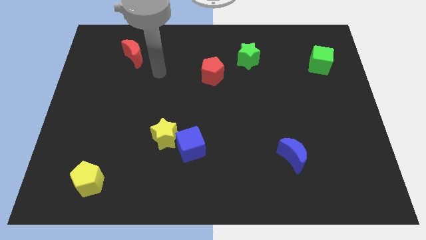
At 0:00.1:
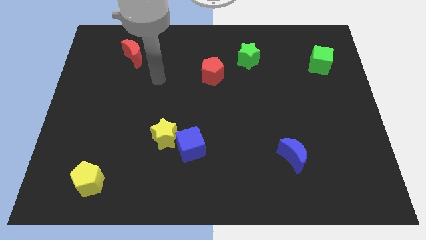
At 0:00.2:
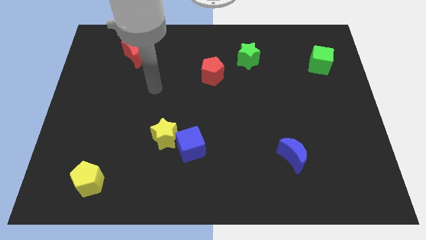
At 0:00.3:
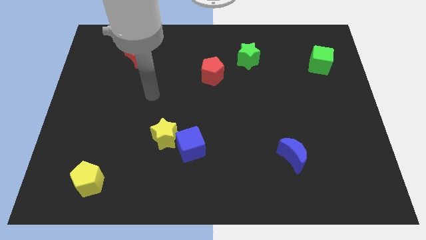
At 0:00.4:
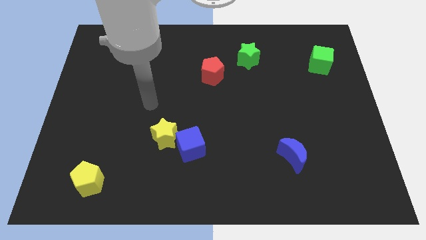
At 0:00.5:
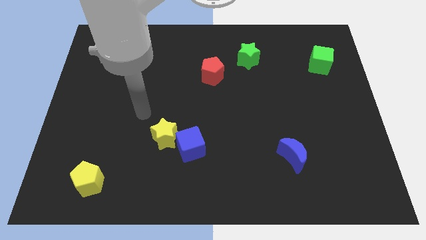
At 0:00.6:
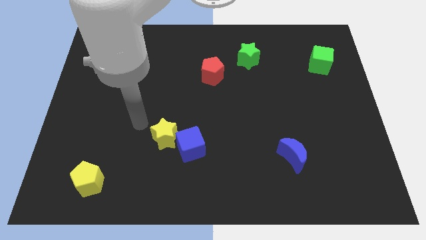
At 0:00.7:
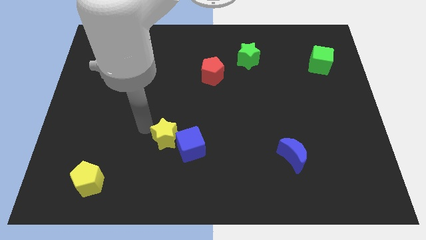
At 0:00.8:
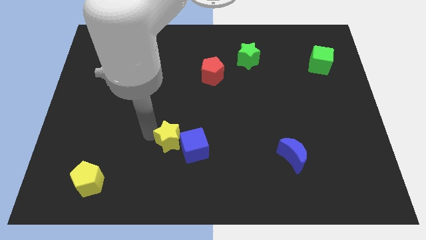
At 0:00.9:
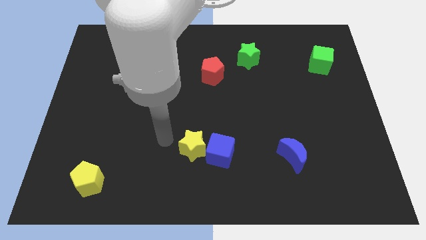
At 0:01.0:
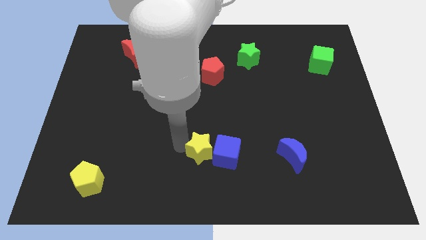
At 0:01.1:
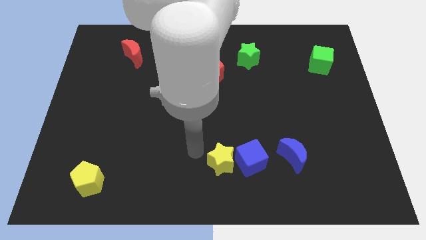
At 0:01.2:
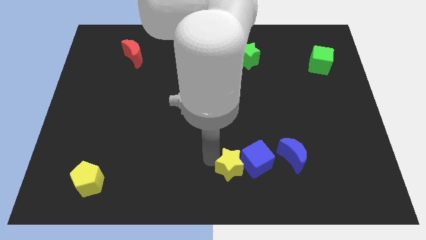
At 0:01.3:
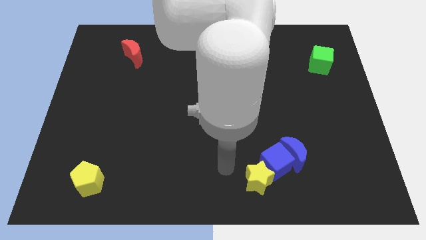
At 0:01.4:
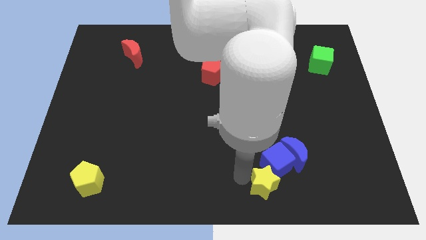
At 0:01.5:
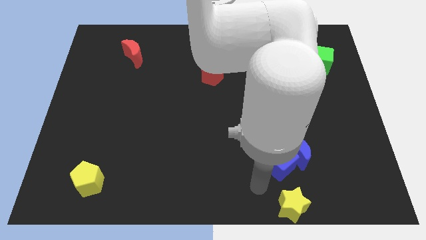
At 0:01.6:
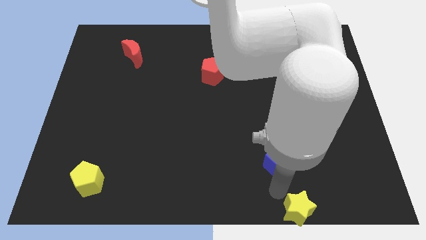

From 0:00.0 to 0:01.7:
move the blue cube away from the yellow star

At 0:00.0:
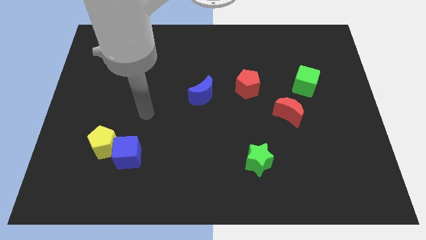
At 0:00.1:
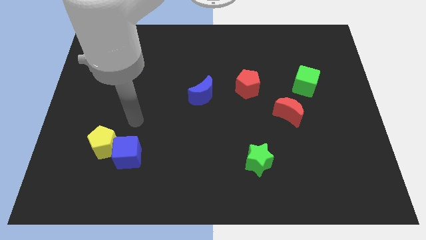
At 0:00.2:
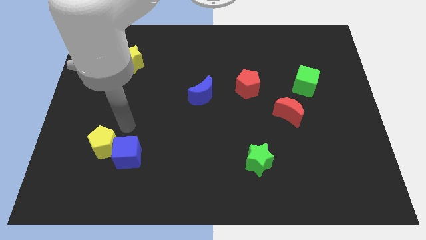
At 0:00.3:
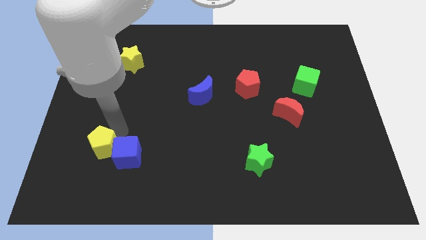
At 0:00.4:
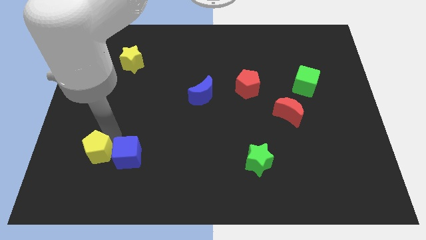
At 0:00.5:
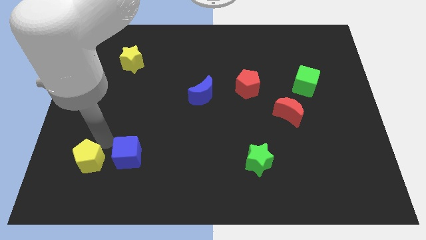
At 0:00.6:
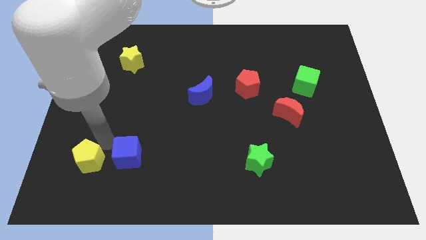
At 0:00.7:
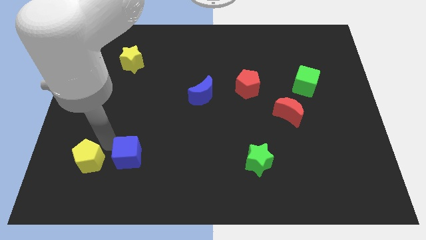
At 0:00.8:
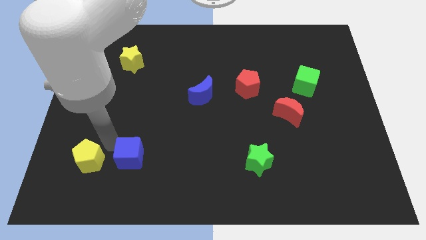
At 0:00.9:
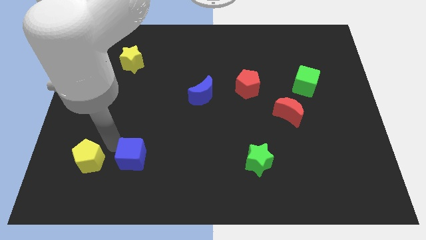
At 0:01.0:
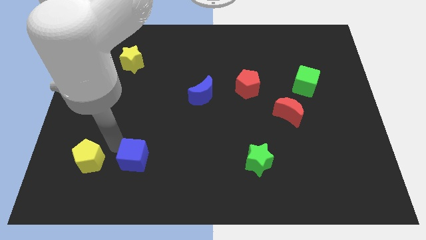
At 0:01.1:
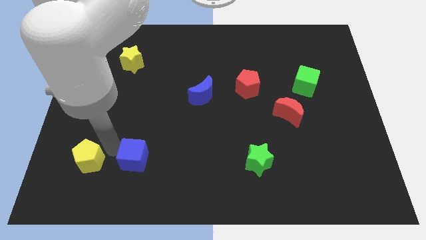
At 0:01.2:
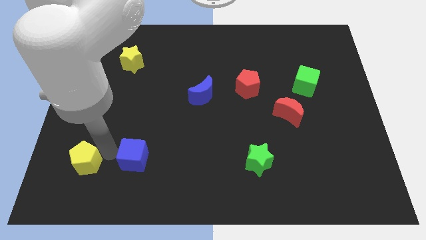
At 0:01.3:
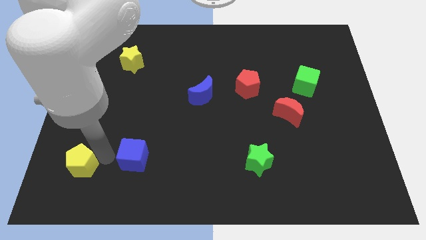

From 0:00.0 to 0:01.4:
move the blue cube away from the yellow pentagon

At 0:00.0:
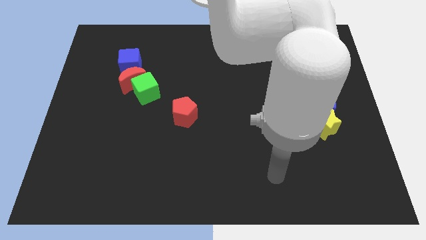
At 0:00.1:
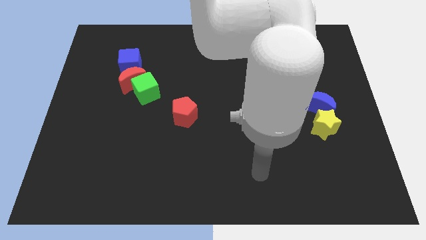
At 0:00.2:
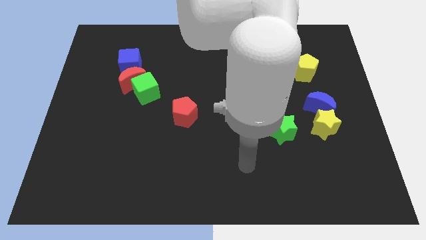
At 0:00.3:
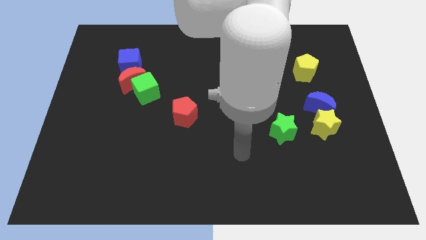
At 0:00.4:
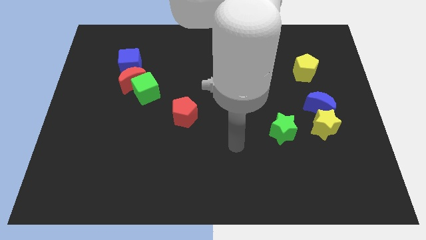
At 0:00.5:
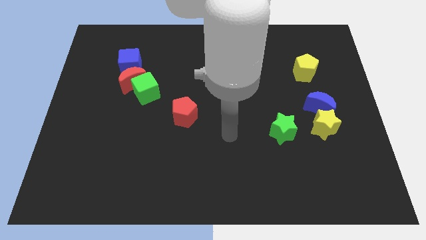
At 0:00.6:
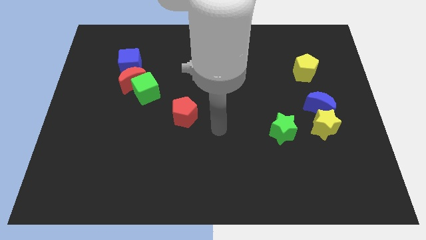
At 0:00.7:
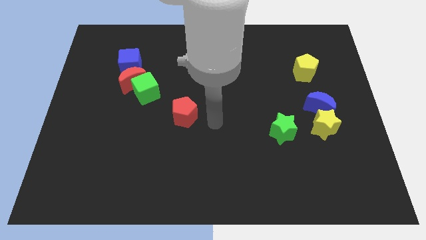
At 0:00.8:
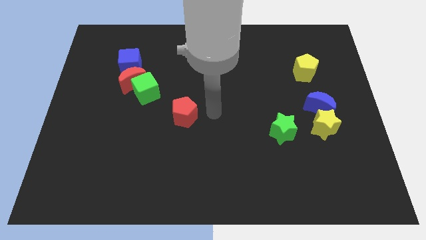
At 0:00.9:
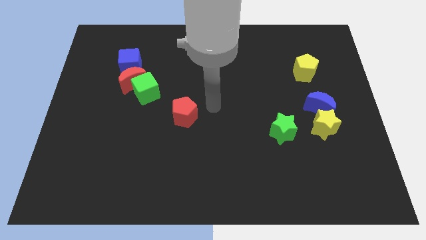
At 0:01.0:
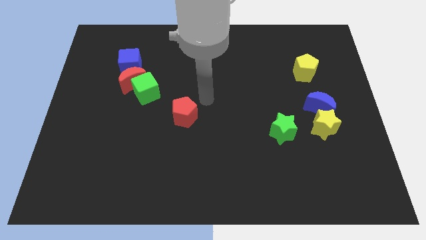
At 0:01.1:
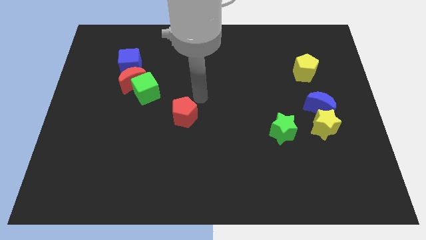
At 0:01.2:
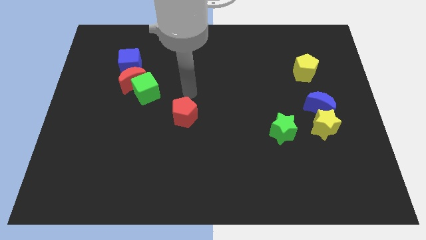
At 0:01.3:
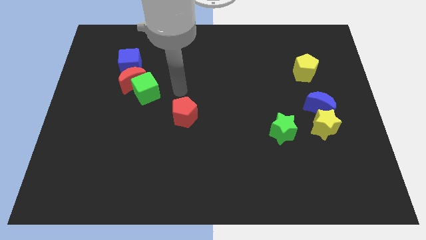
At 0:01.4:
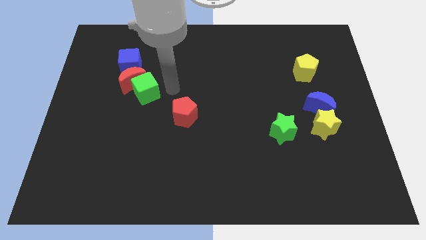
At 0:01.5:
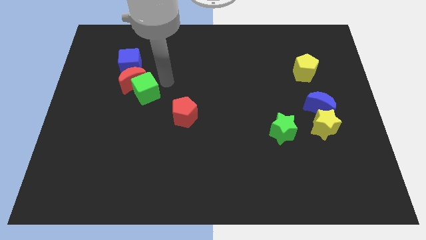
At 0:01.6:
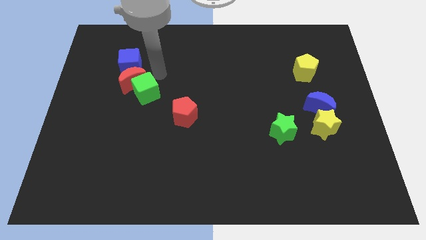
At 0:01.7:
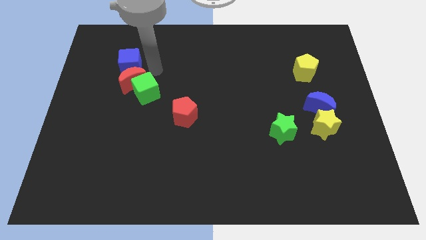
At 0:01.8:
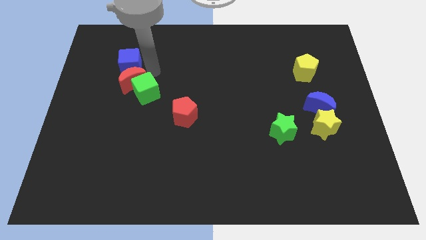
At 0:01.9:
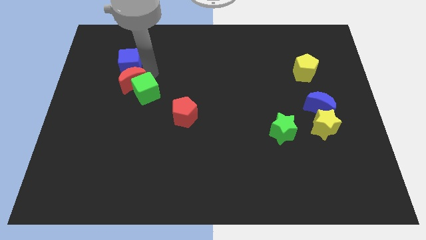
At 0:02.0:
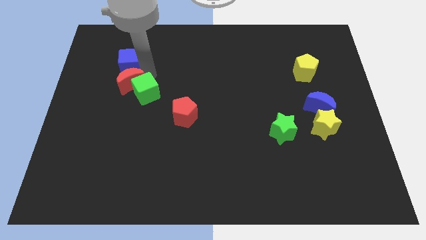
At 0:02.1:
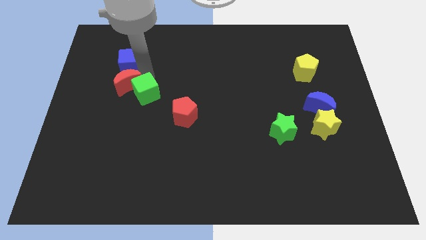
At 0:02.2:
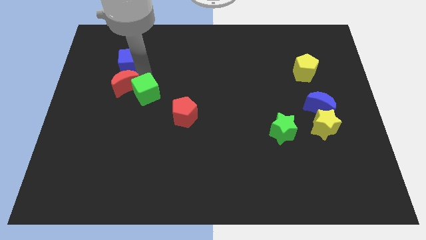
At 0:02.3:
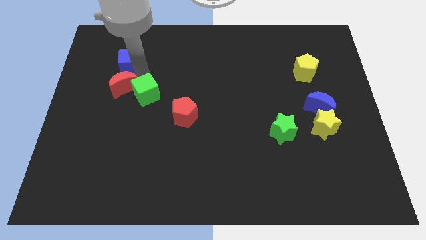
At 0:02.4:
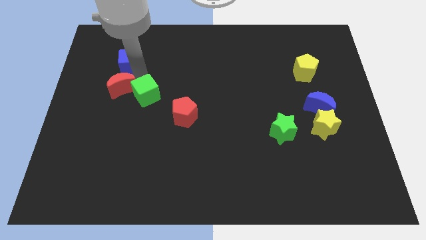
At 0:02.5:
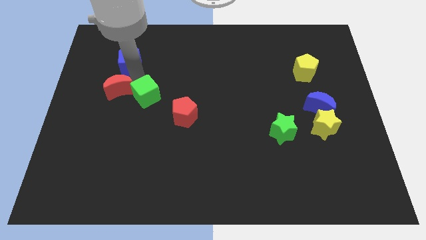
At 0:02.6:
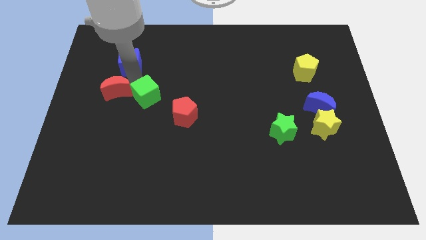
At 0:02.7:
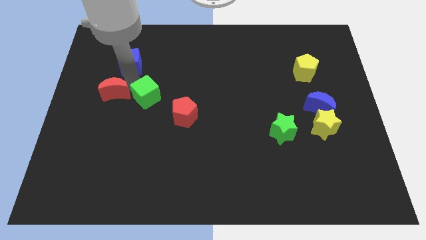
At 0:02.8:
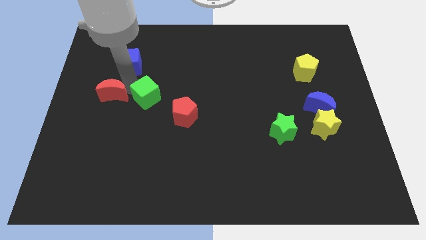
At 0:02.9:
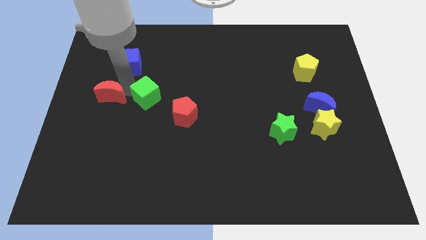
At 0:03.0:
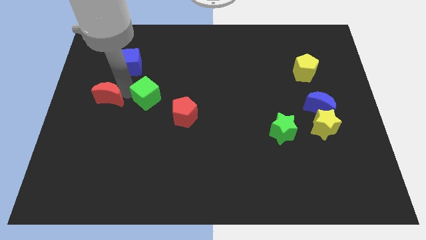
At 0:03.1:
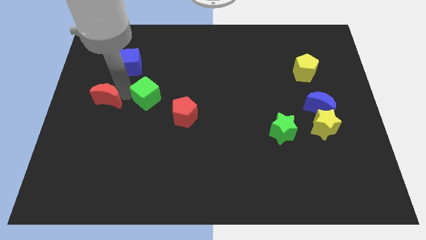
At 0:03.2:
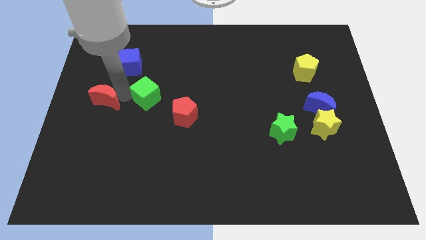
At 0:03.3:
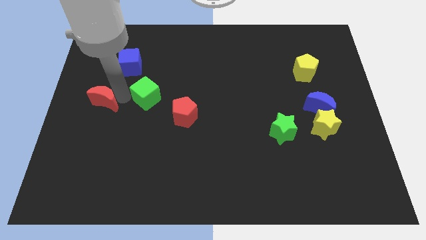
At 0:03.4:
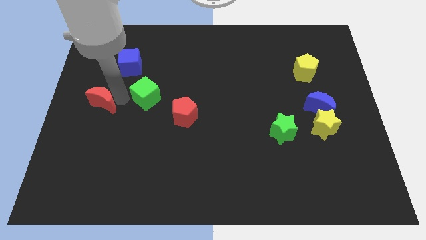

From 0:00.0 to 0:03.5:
separate the red moon from the green cube and blue cube

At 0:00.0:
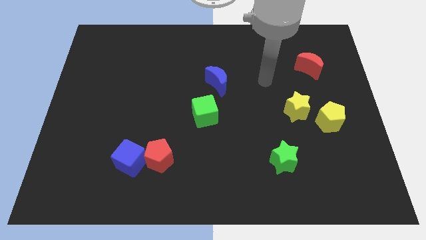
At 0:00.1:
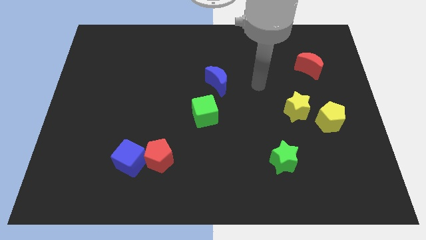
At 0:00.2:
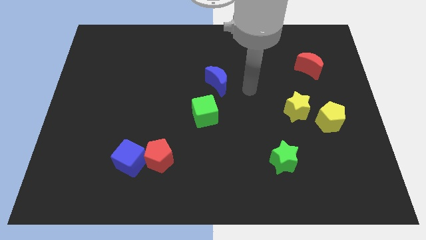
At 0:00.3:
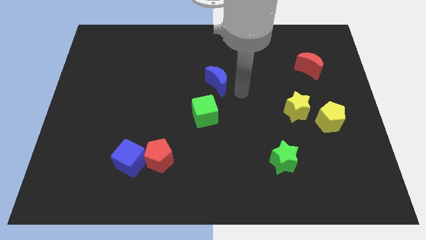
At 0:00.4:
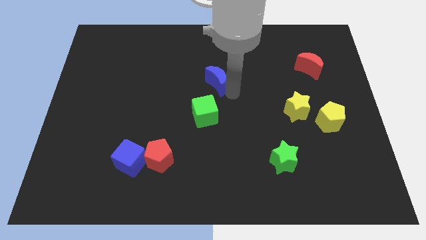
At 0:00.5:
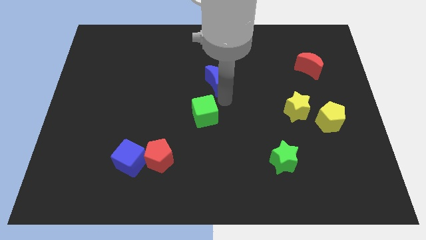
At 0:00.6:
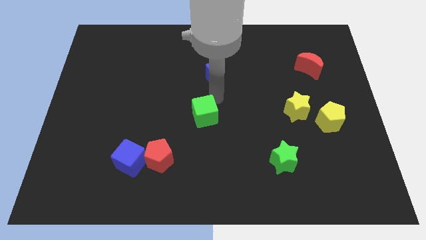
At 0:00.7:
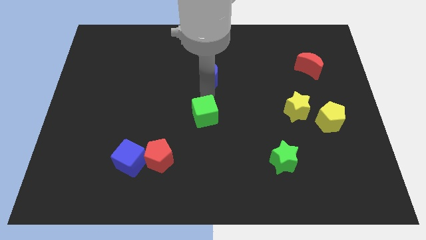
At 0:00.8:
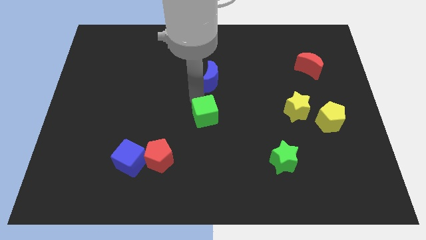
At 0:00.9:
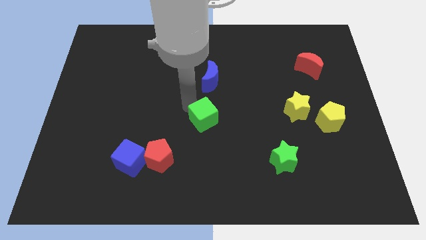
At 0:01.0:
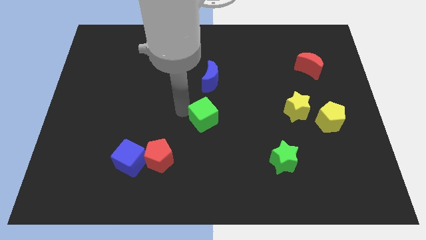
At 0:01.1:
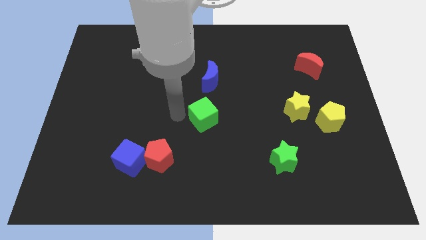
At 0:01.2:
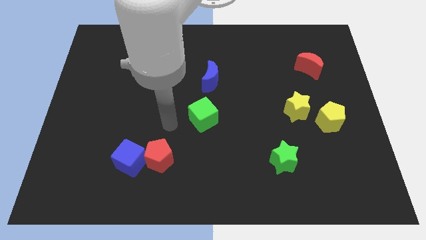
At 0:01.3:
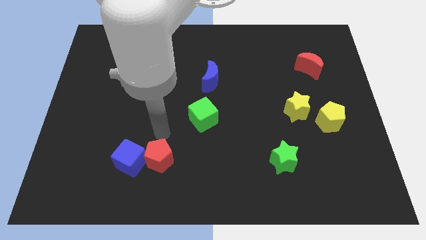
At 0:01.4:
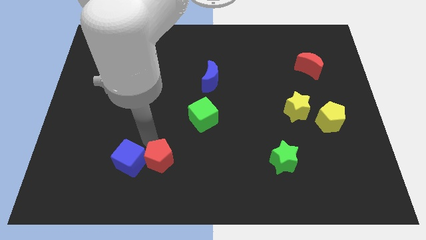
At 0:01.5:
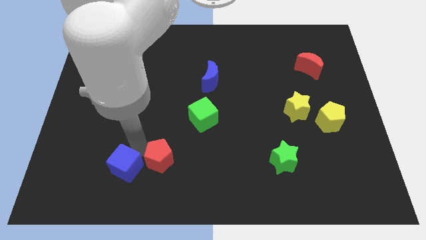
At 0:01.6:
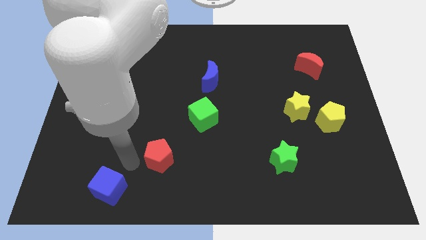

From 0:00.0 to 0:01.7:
pull the red pentagon apart from the blue cube

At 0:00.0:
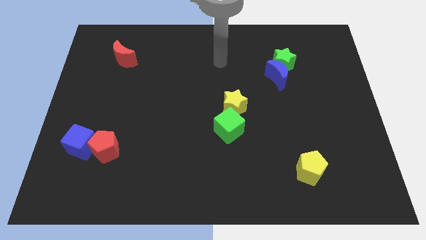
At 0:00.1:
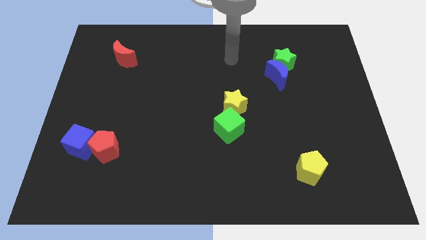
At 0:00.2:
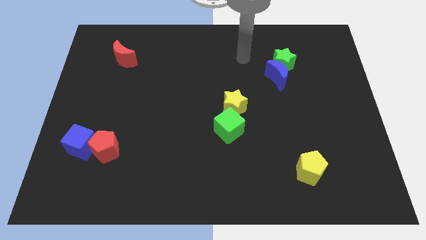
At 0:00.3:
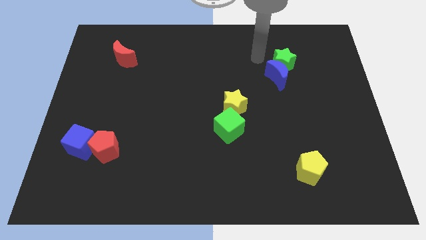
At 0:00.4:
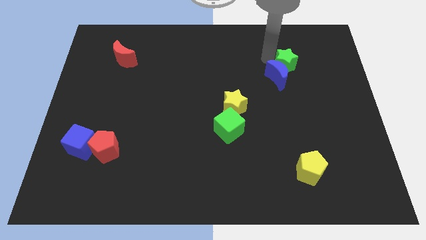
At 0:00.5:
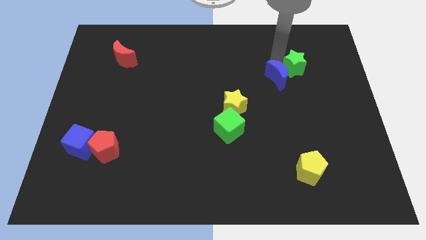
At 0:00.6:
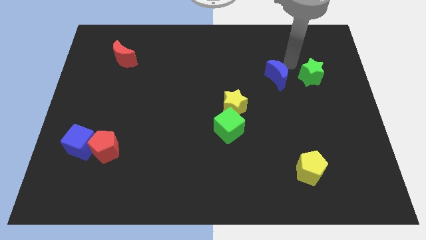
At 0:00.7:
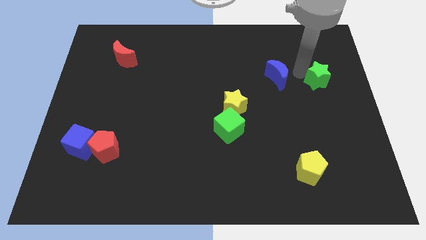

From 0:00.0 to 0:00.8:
separate the blue moon from the green star

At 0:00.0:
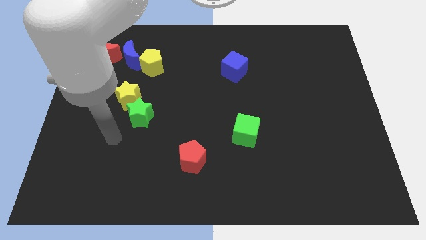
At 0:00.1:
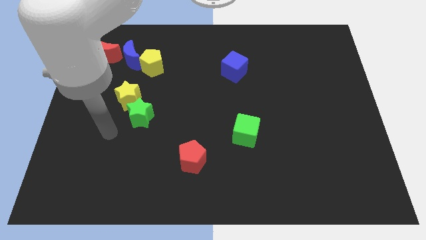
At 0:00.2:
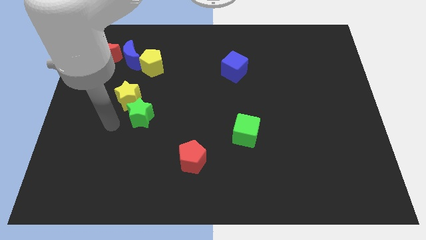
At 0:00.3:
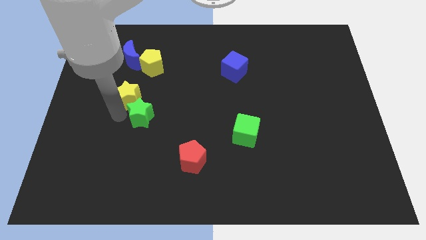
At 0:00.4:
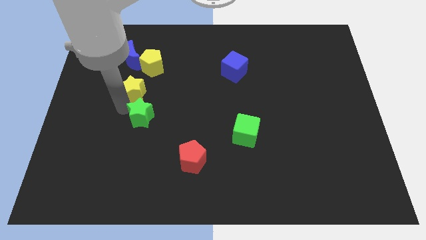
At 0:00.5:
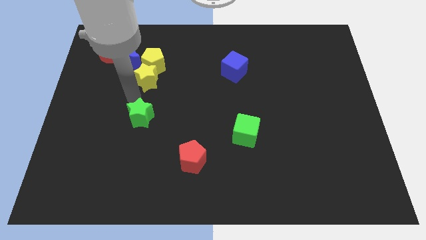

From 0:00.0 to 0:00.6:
pull the green star apart from the yellow star
